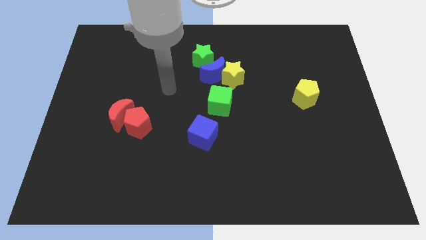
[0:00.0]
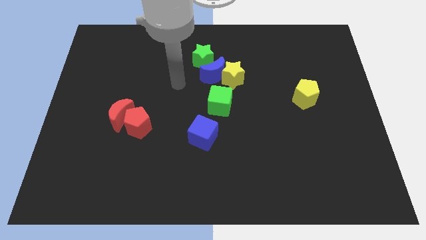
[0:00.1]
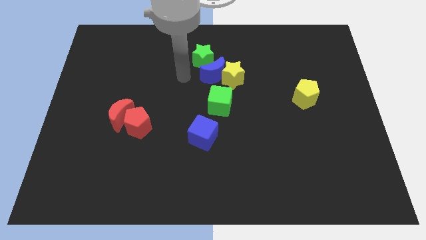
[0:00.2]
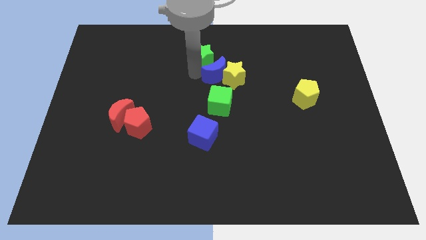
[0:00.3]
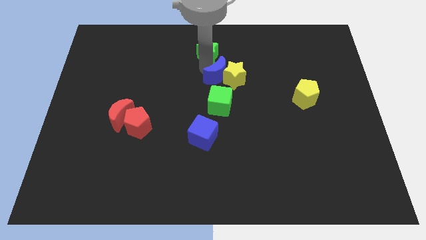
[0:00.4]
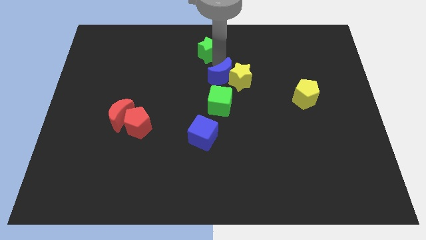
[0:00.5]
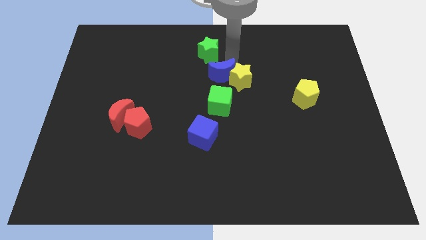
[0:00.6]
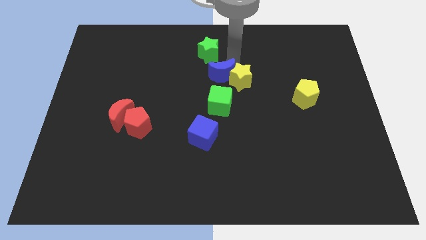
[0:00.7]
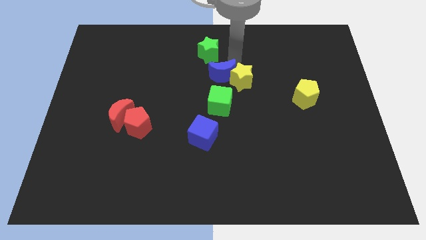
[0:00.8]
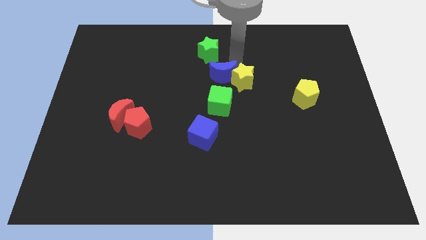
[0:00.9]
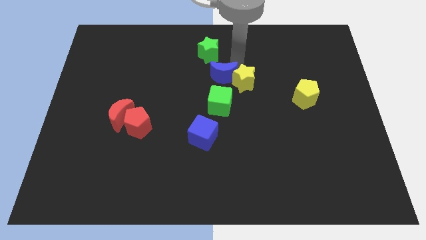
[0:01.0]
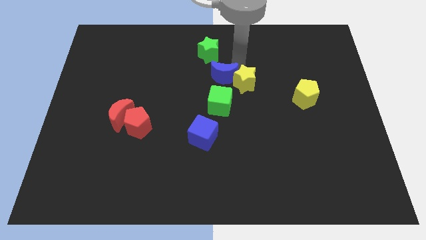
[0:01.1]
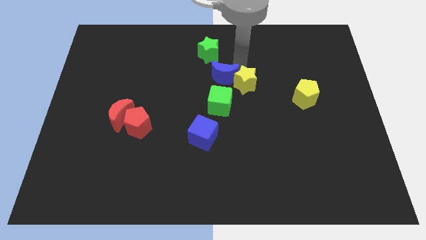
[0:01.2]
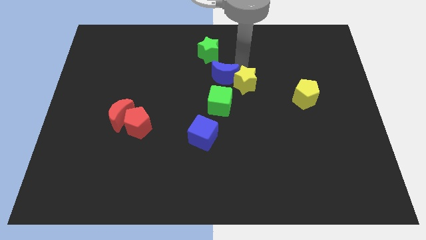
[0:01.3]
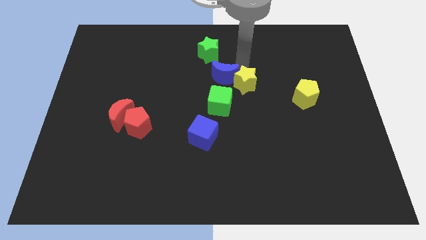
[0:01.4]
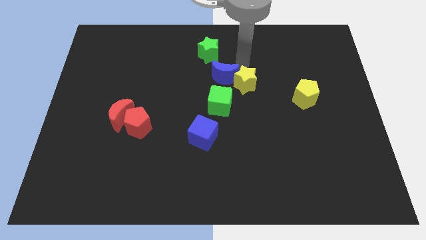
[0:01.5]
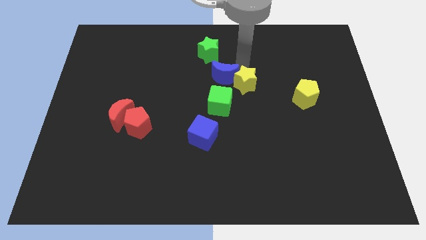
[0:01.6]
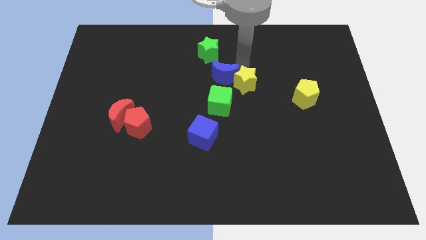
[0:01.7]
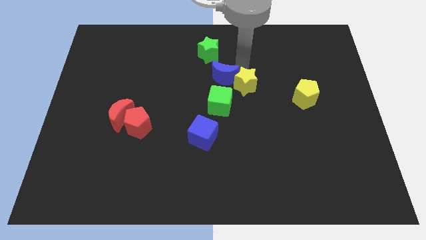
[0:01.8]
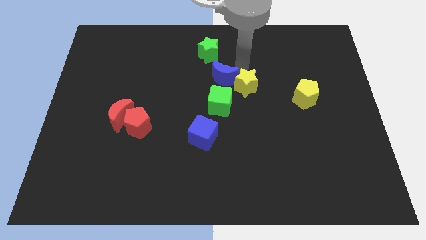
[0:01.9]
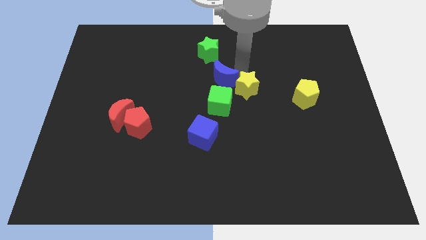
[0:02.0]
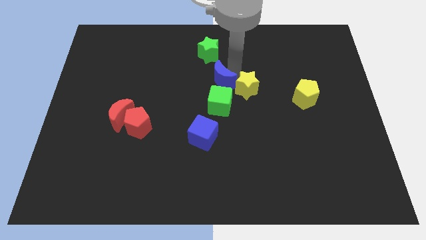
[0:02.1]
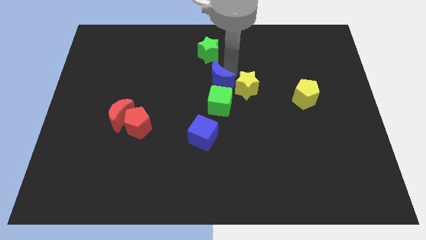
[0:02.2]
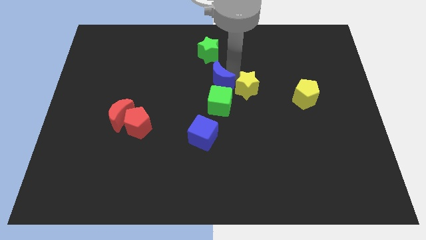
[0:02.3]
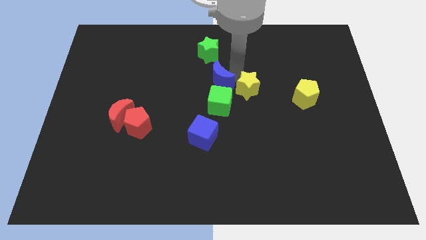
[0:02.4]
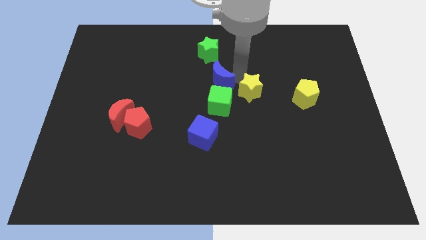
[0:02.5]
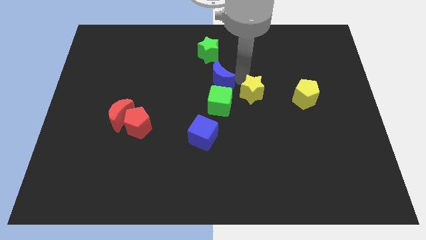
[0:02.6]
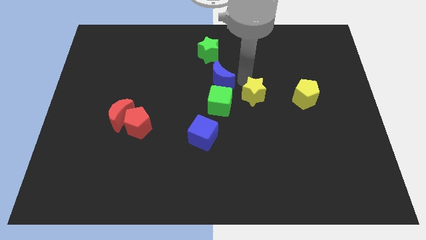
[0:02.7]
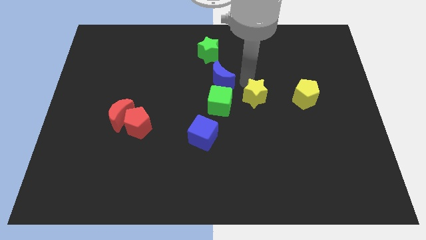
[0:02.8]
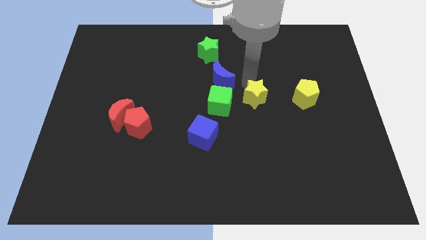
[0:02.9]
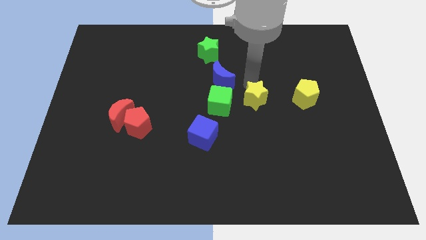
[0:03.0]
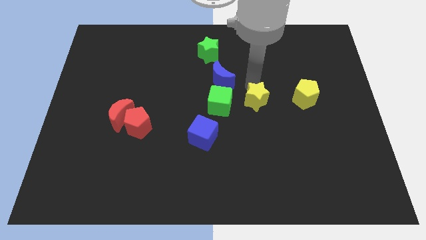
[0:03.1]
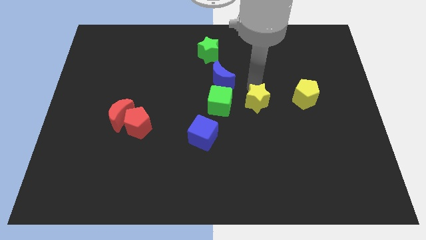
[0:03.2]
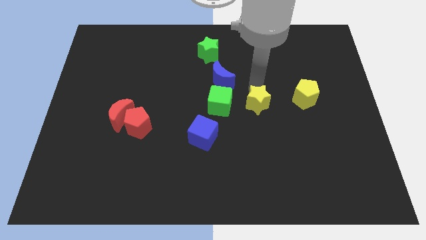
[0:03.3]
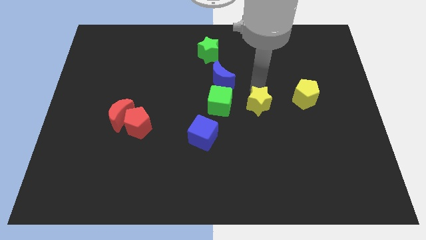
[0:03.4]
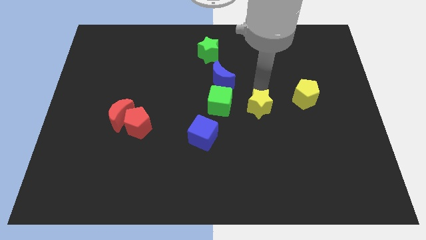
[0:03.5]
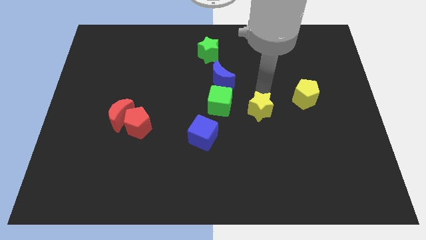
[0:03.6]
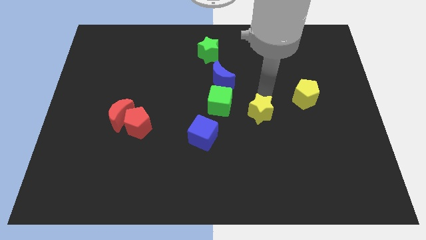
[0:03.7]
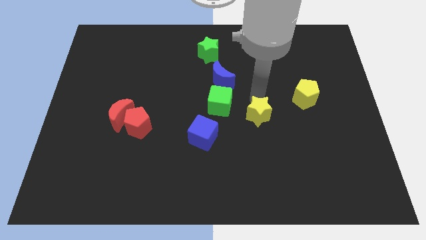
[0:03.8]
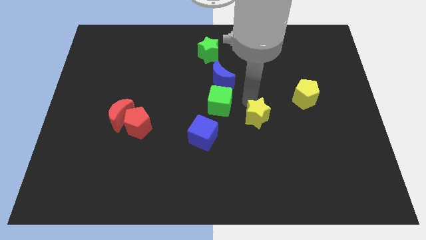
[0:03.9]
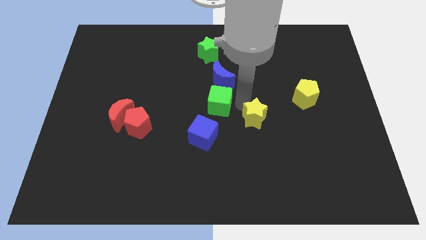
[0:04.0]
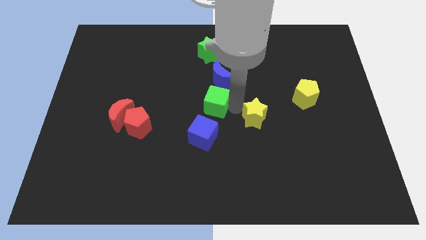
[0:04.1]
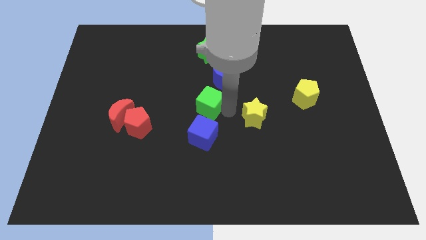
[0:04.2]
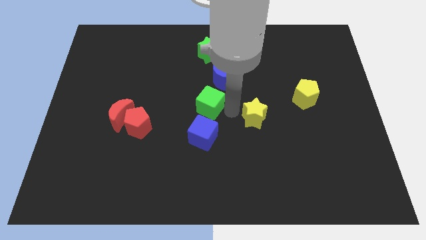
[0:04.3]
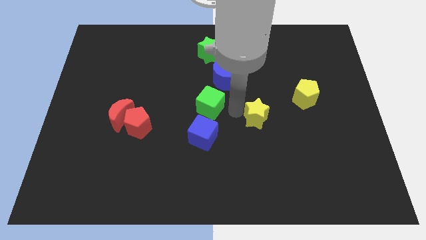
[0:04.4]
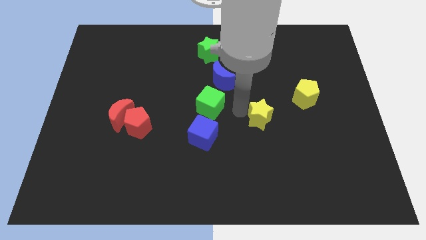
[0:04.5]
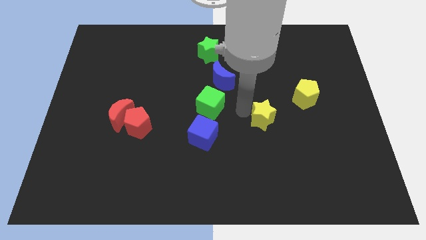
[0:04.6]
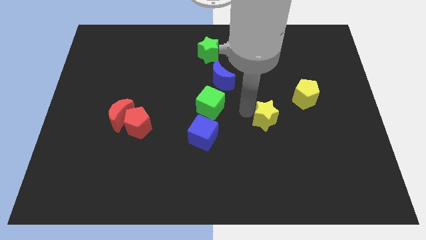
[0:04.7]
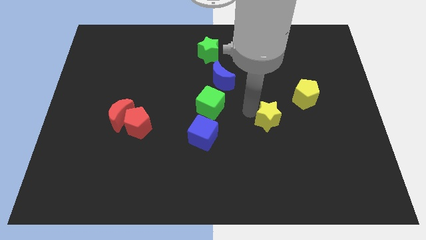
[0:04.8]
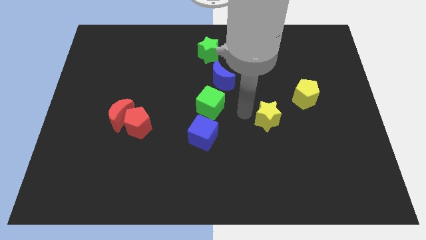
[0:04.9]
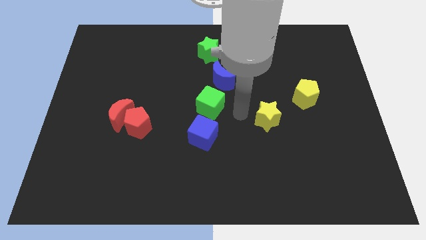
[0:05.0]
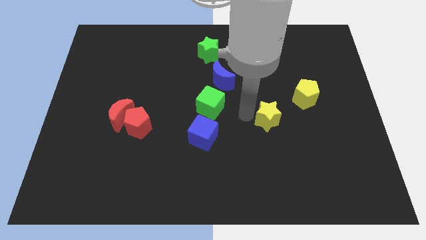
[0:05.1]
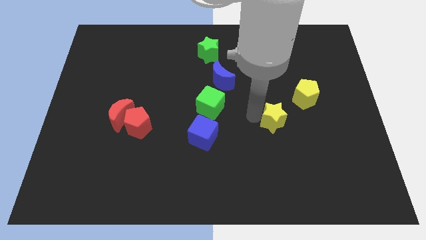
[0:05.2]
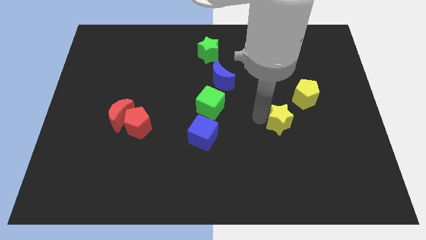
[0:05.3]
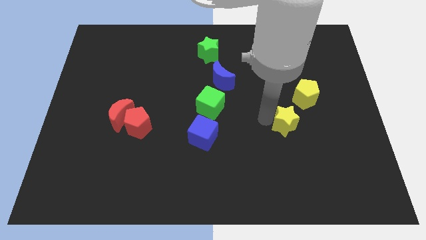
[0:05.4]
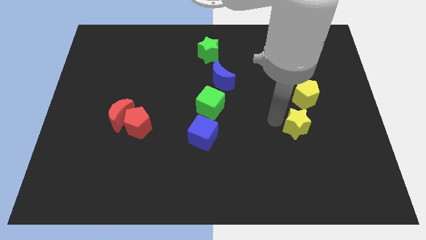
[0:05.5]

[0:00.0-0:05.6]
move the yellow star down and to the right diagonally

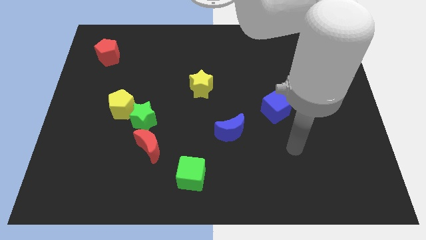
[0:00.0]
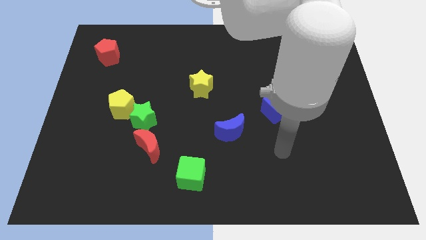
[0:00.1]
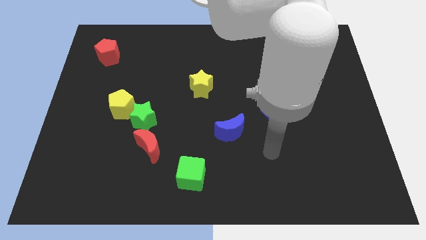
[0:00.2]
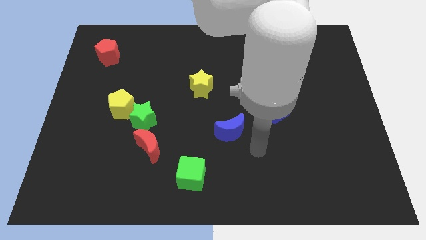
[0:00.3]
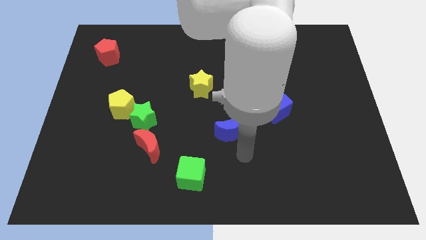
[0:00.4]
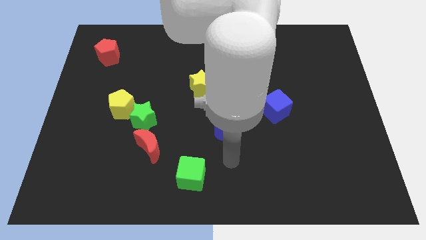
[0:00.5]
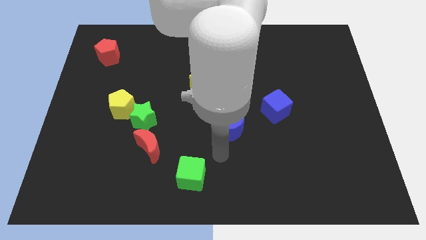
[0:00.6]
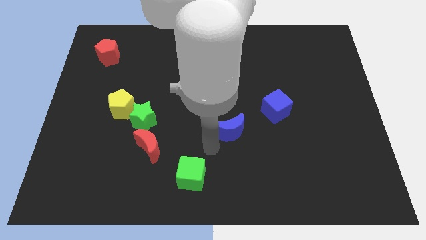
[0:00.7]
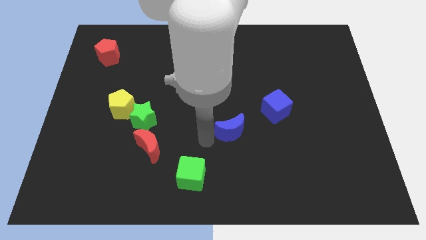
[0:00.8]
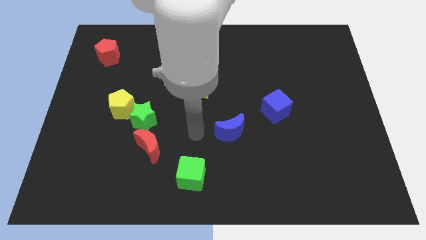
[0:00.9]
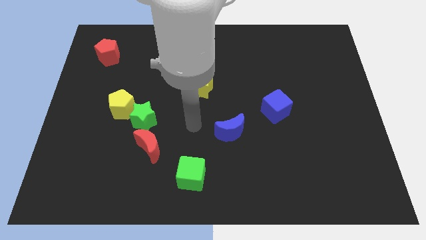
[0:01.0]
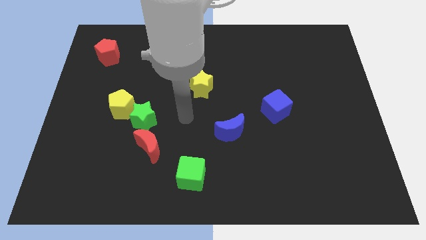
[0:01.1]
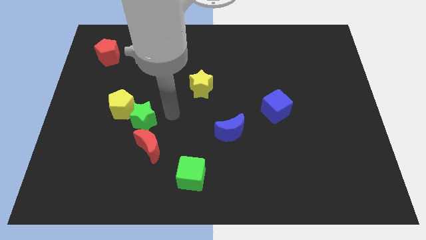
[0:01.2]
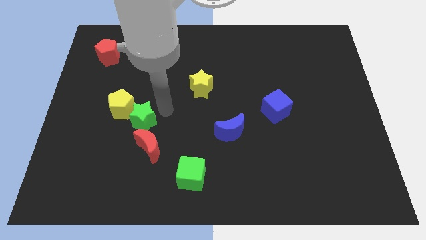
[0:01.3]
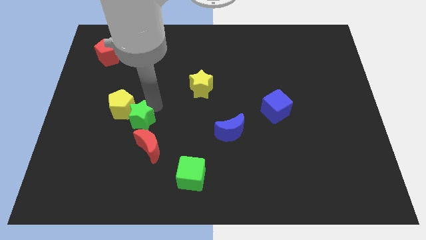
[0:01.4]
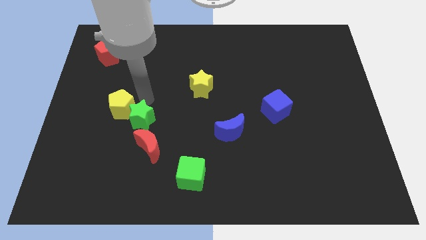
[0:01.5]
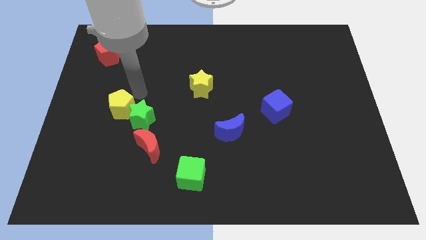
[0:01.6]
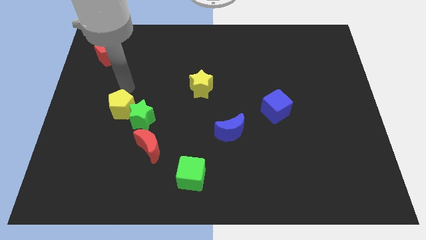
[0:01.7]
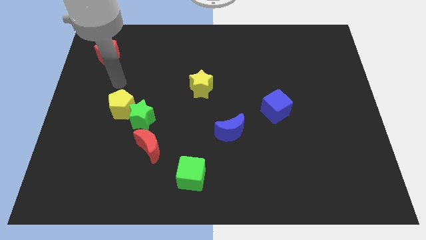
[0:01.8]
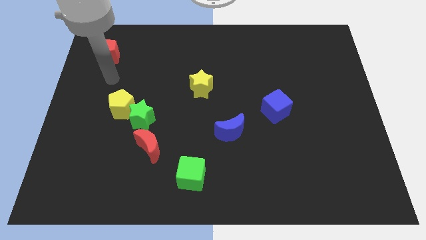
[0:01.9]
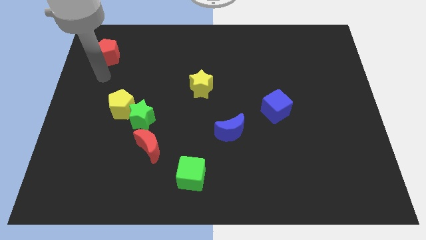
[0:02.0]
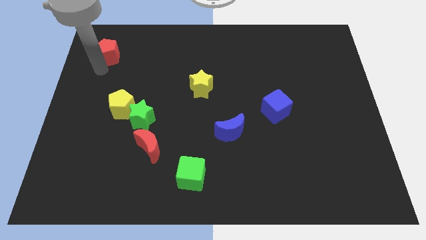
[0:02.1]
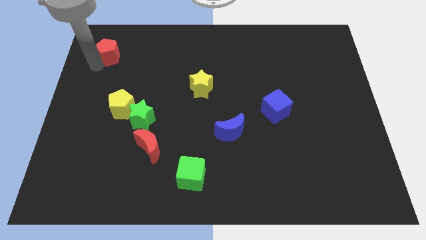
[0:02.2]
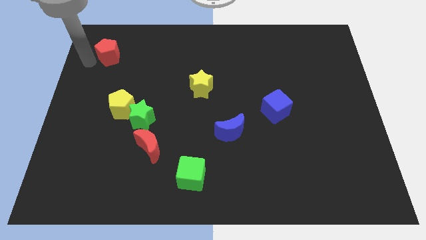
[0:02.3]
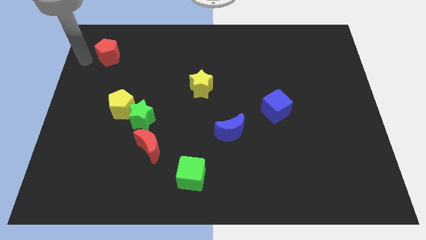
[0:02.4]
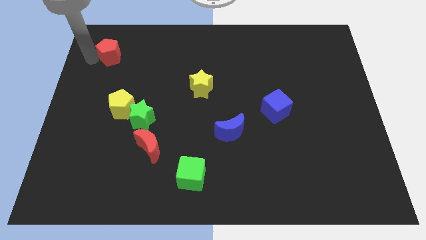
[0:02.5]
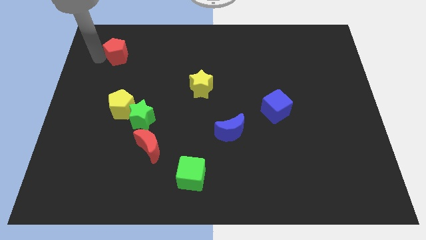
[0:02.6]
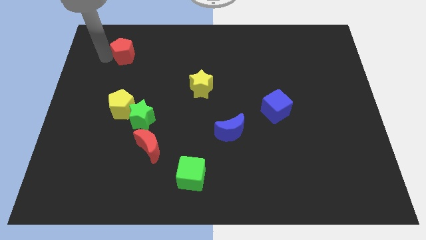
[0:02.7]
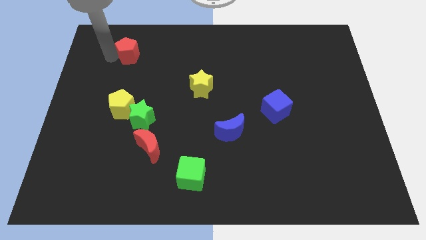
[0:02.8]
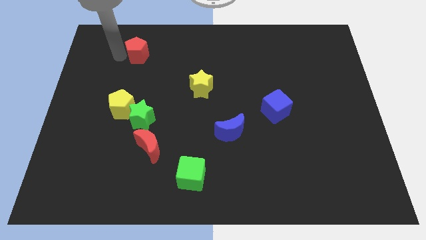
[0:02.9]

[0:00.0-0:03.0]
slightly move the red pentagon to the right
